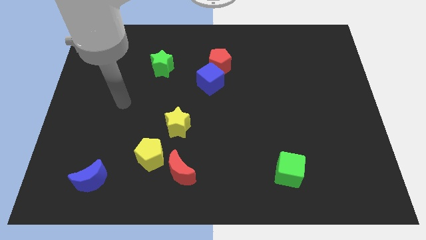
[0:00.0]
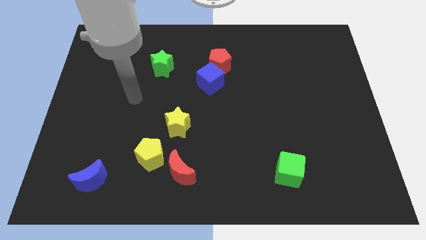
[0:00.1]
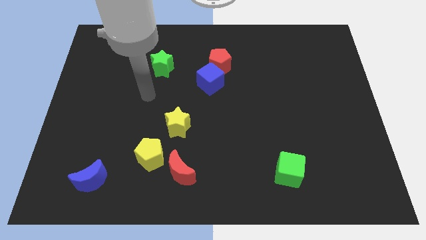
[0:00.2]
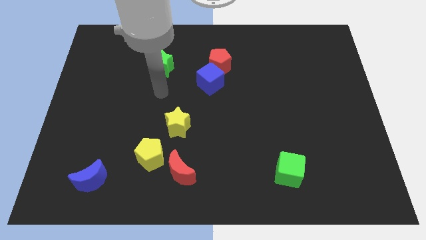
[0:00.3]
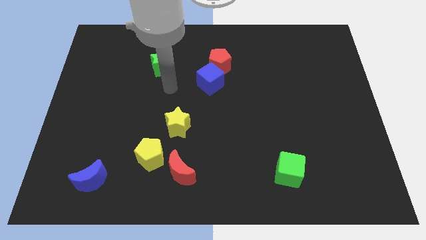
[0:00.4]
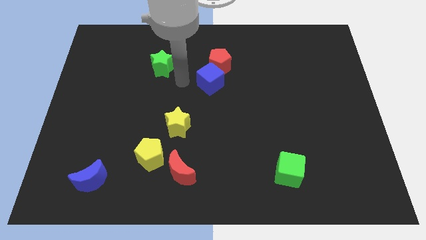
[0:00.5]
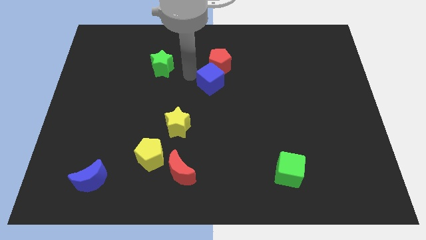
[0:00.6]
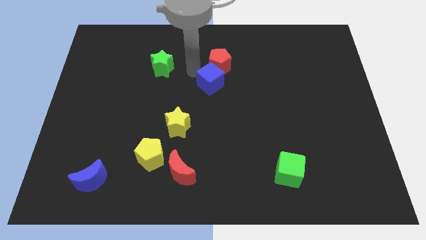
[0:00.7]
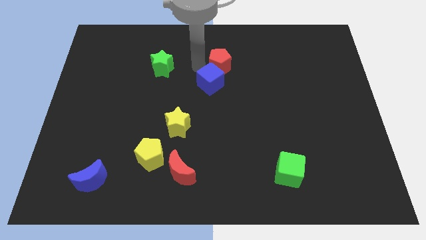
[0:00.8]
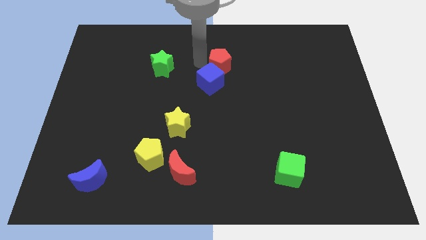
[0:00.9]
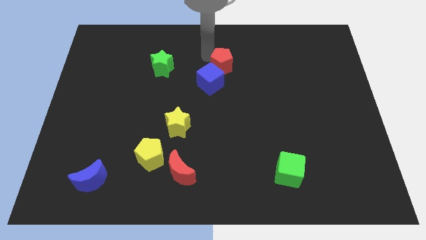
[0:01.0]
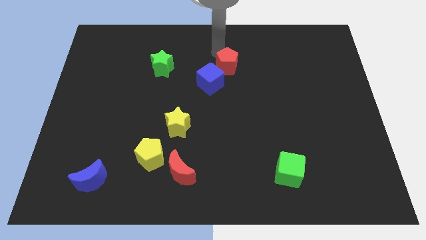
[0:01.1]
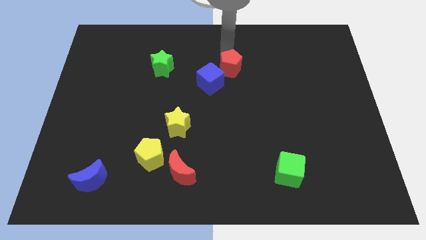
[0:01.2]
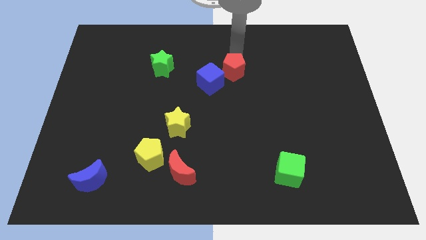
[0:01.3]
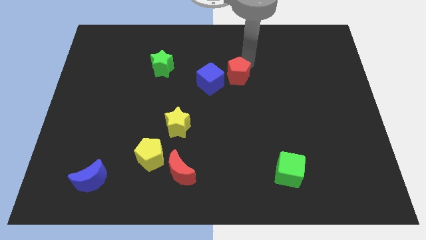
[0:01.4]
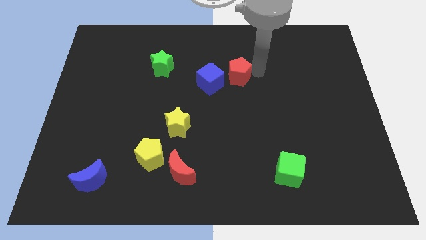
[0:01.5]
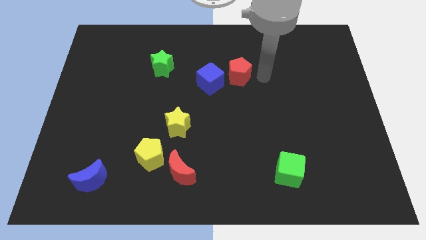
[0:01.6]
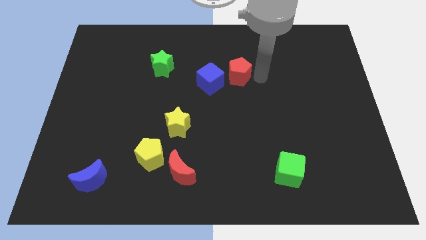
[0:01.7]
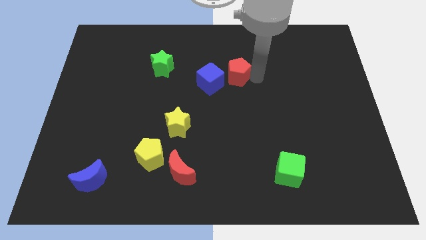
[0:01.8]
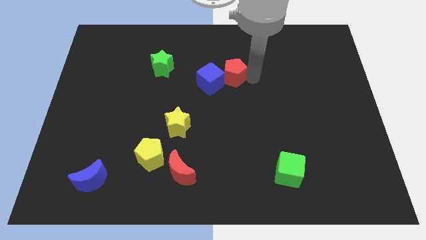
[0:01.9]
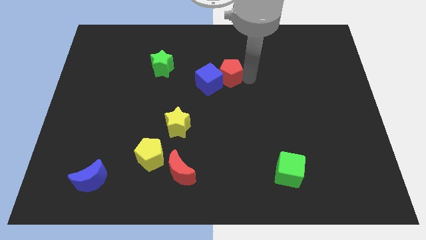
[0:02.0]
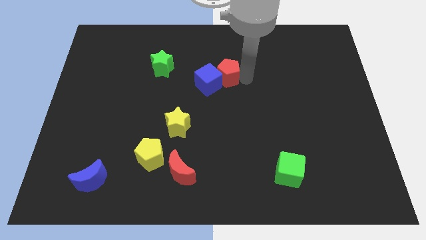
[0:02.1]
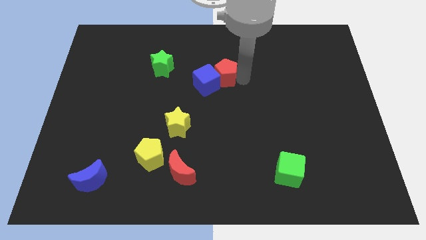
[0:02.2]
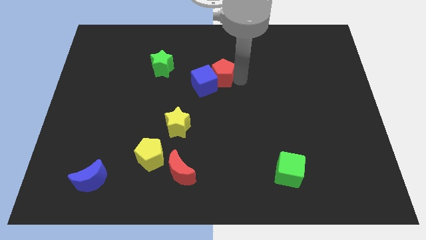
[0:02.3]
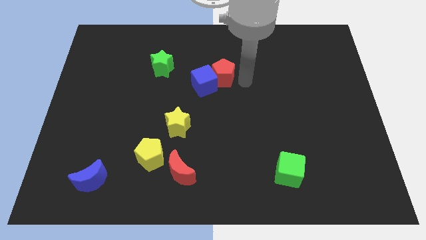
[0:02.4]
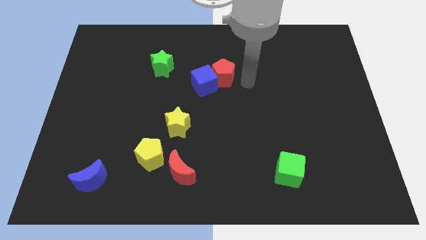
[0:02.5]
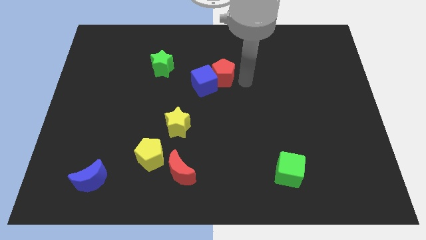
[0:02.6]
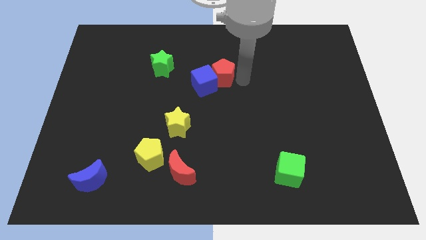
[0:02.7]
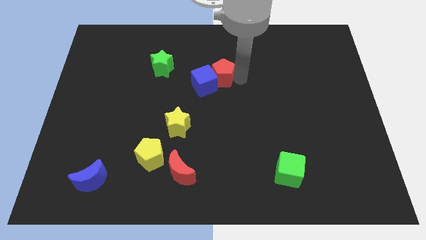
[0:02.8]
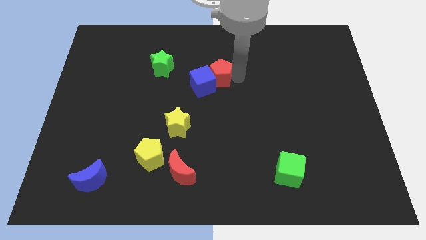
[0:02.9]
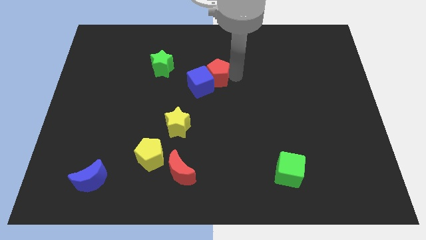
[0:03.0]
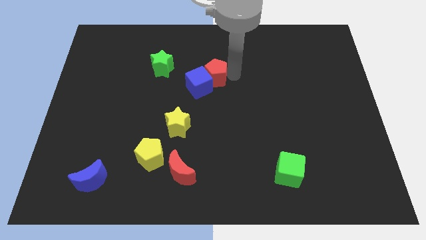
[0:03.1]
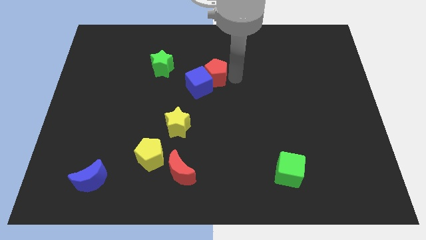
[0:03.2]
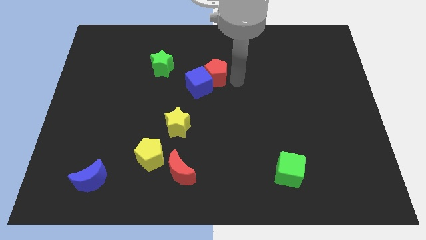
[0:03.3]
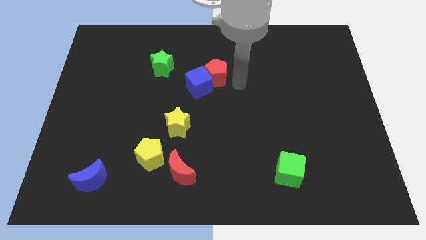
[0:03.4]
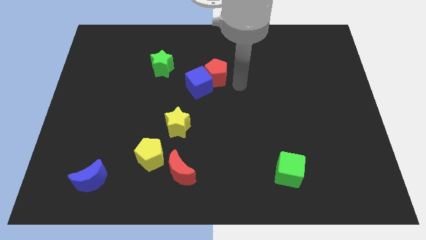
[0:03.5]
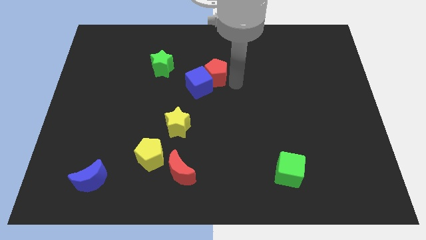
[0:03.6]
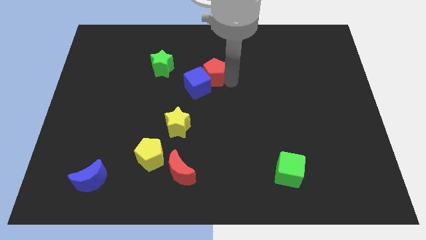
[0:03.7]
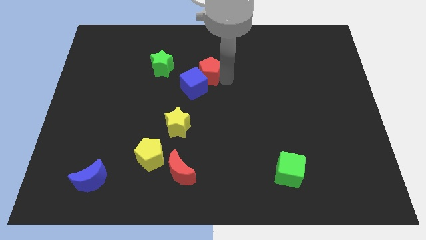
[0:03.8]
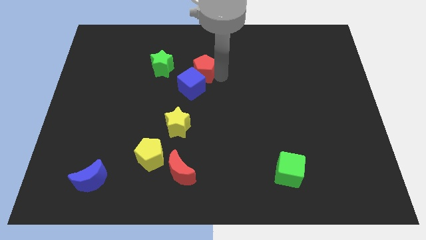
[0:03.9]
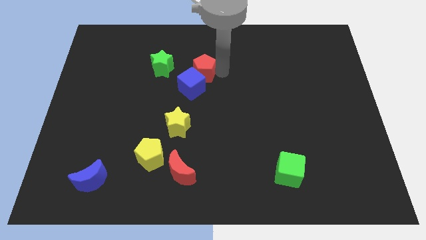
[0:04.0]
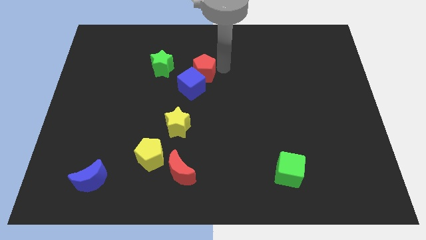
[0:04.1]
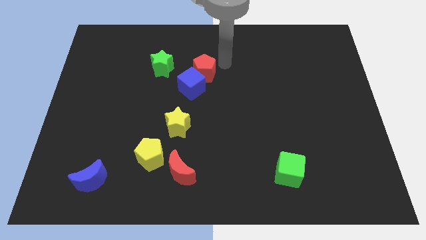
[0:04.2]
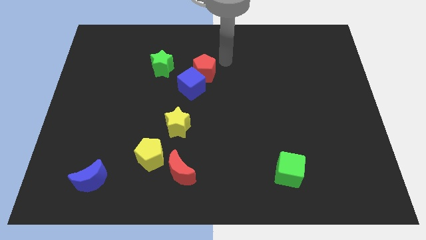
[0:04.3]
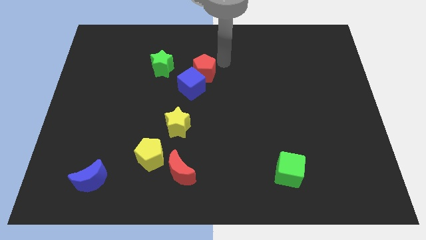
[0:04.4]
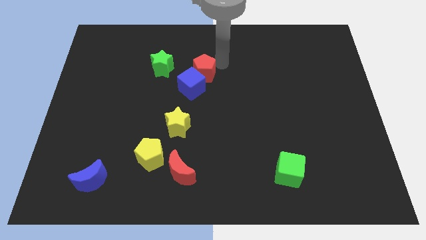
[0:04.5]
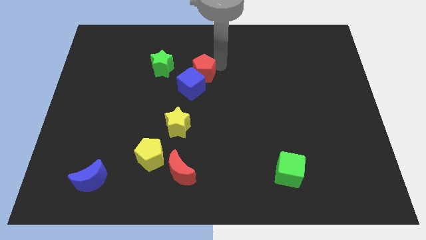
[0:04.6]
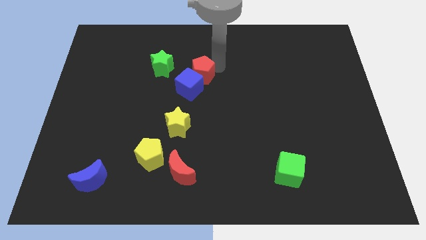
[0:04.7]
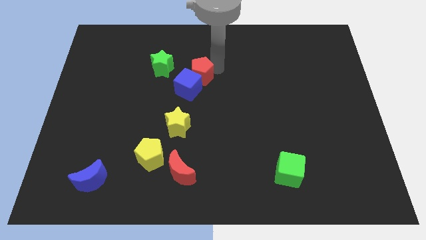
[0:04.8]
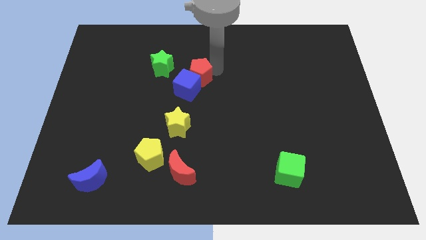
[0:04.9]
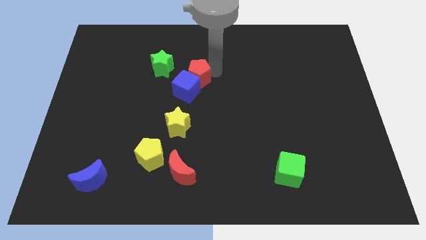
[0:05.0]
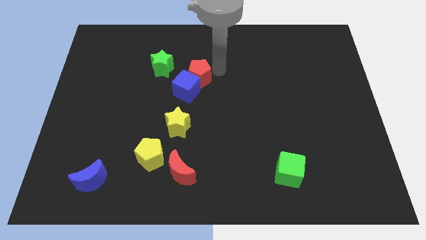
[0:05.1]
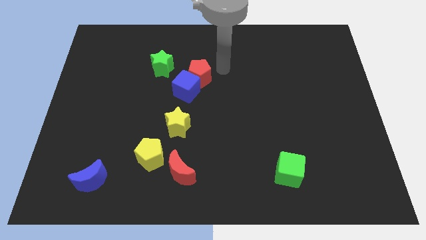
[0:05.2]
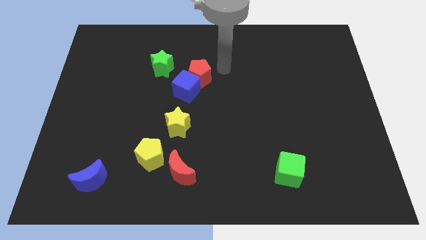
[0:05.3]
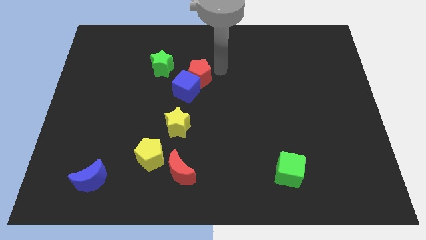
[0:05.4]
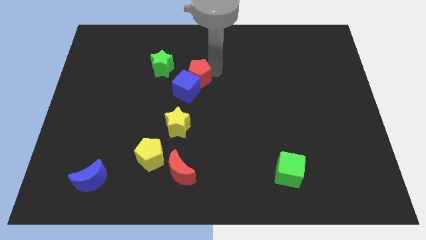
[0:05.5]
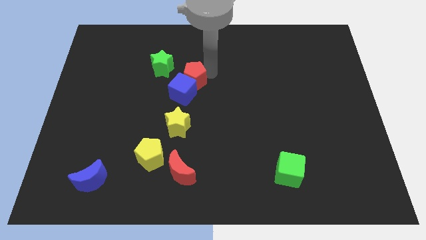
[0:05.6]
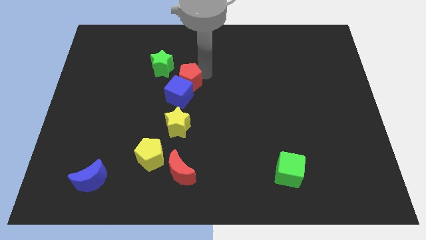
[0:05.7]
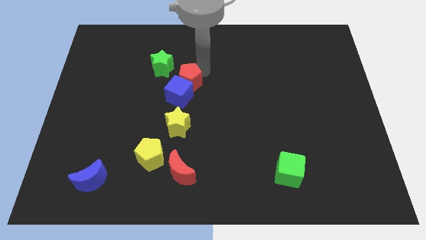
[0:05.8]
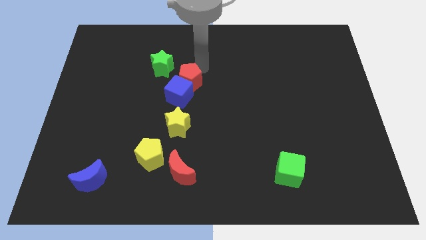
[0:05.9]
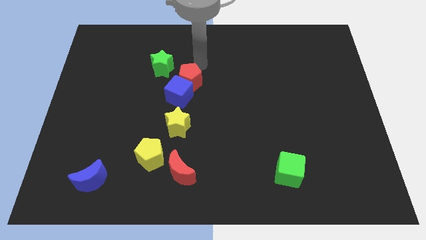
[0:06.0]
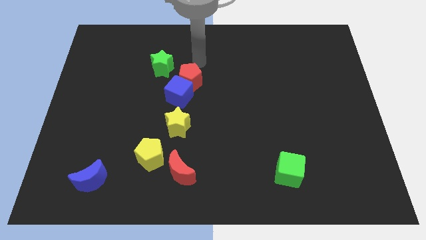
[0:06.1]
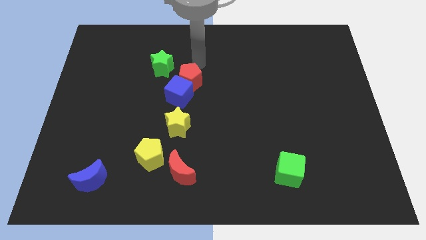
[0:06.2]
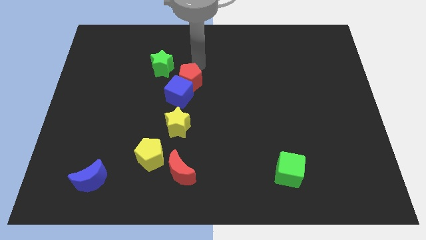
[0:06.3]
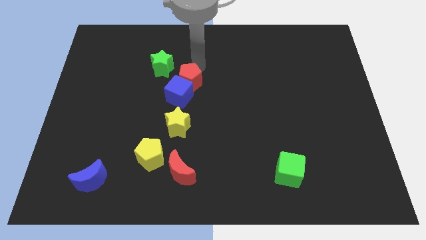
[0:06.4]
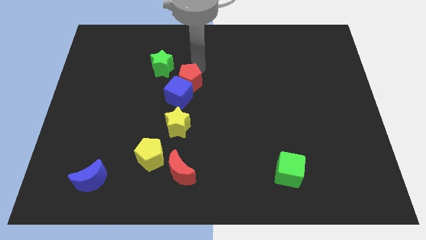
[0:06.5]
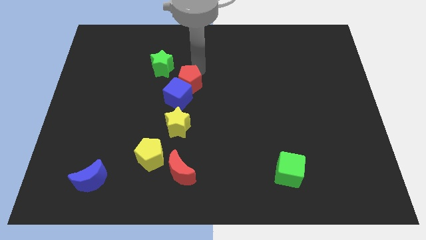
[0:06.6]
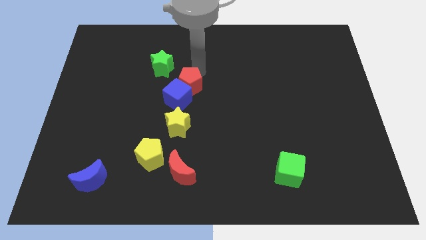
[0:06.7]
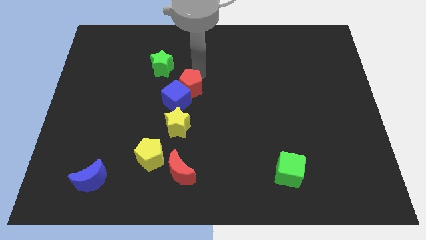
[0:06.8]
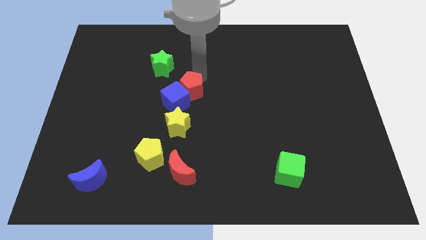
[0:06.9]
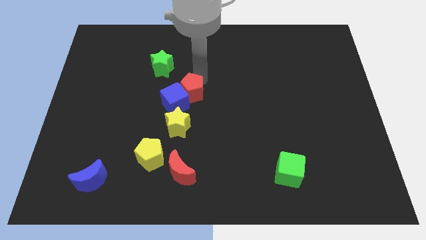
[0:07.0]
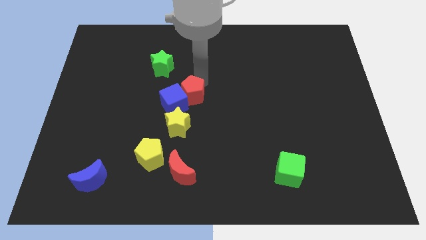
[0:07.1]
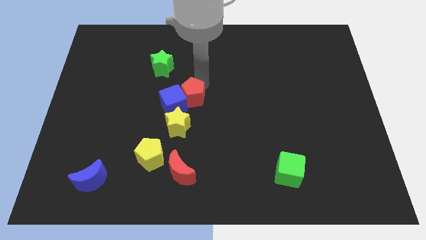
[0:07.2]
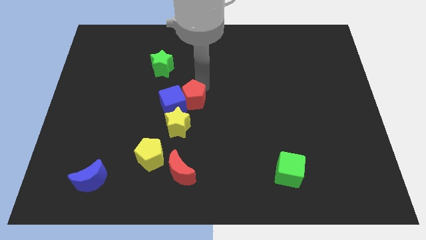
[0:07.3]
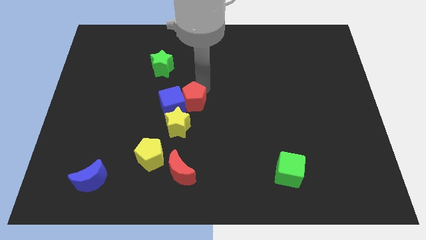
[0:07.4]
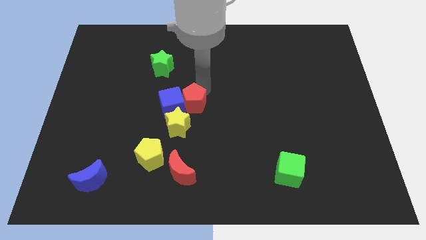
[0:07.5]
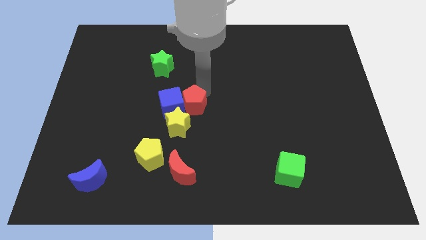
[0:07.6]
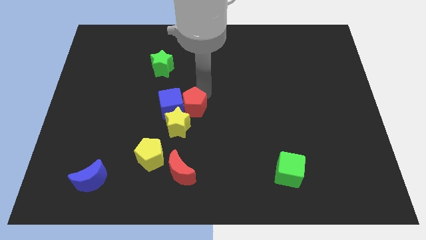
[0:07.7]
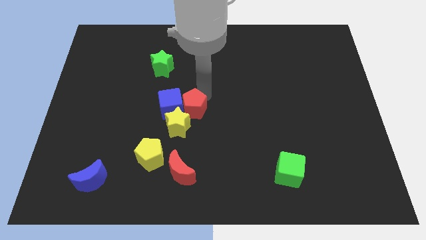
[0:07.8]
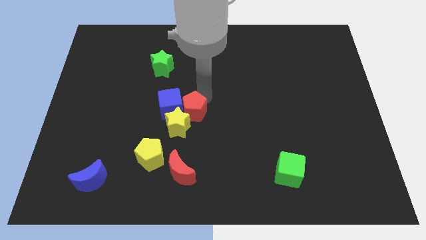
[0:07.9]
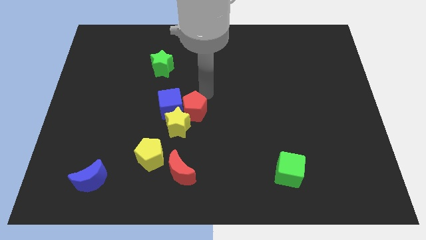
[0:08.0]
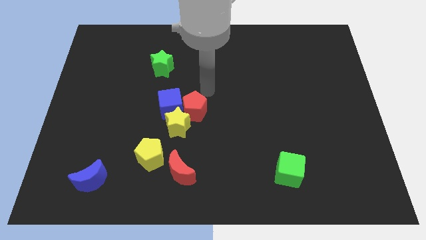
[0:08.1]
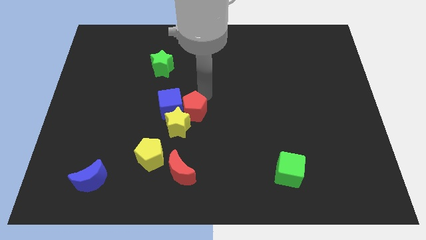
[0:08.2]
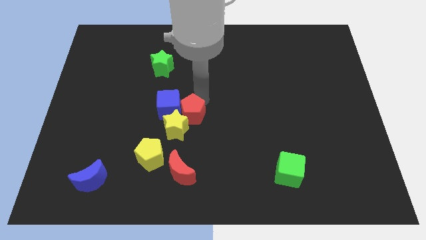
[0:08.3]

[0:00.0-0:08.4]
put the red pentagon to the top of the red moon
